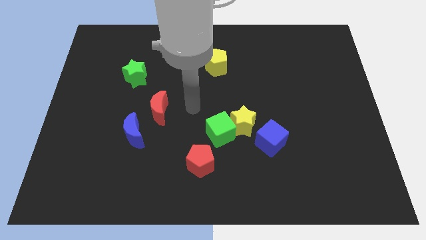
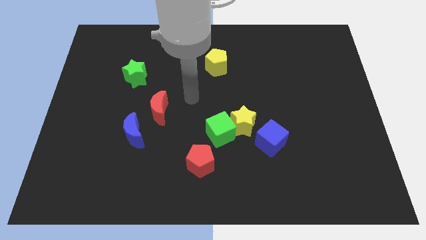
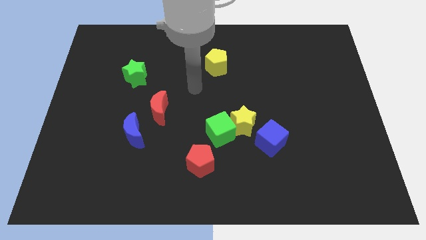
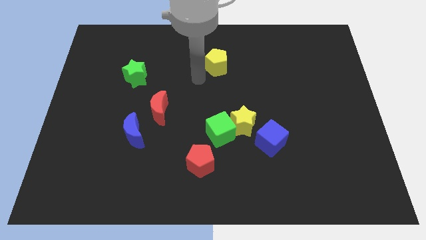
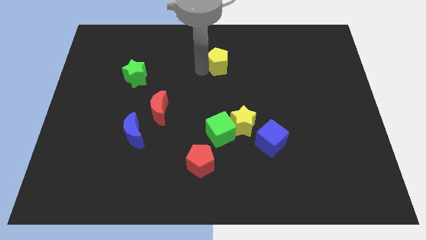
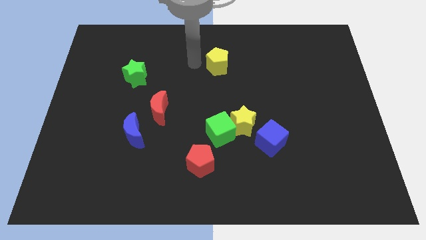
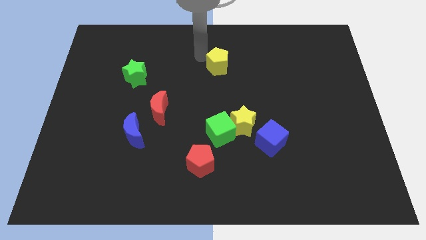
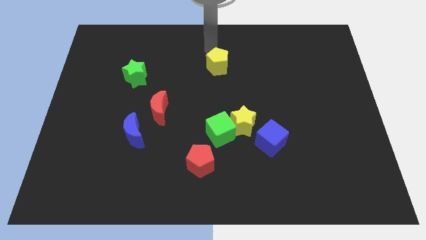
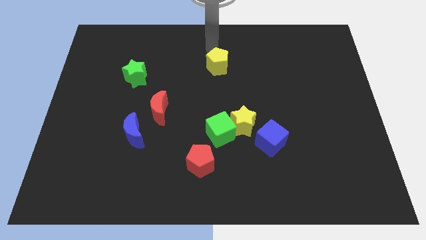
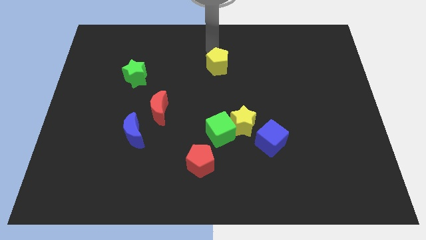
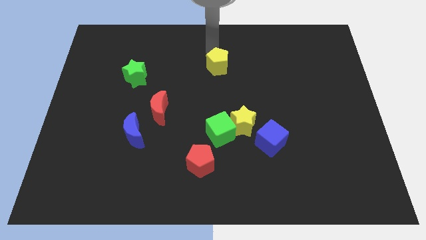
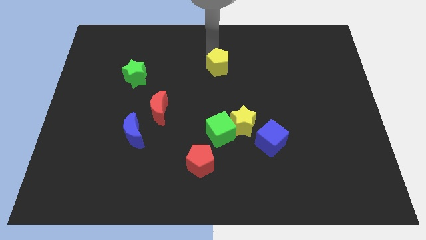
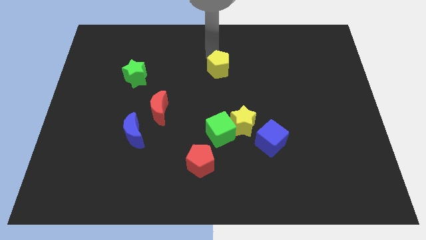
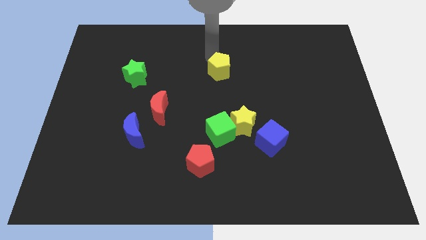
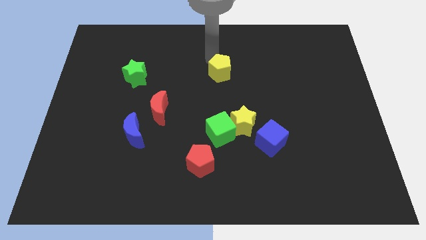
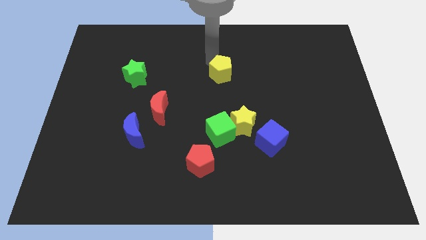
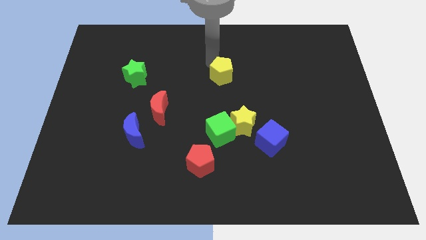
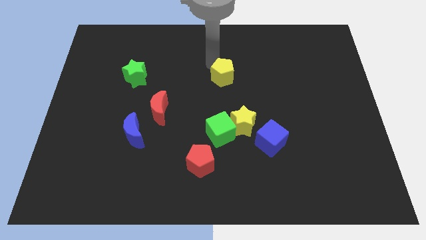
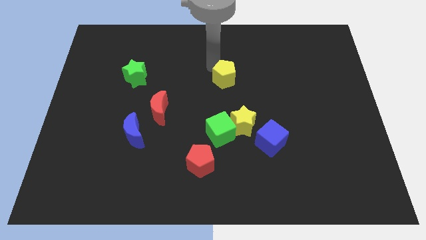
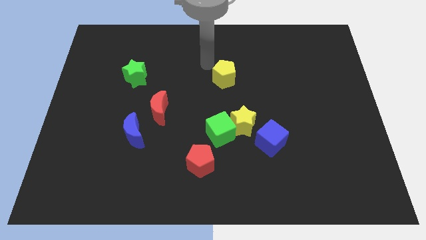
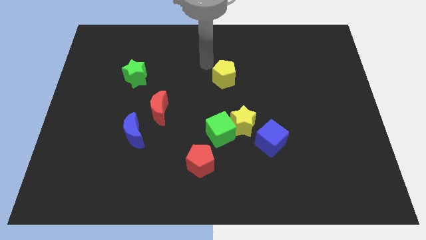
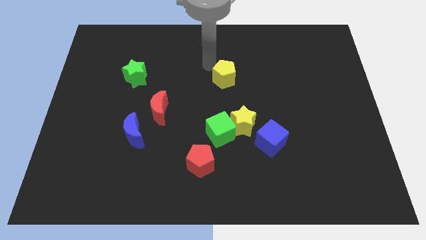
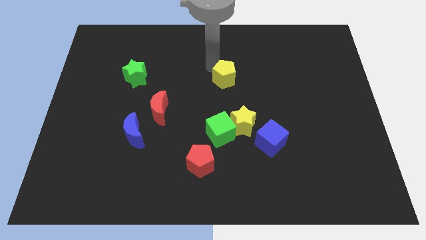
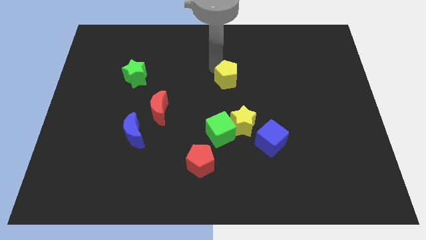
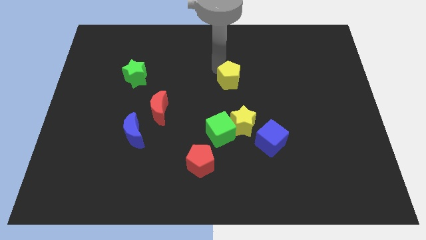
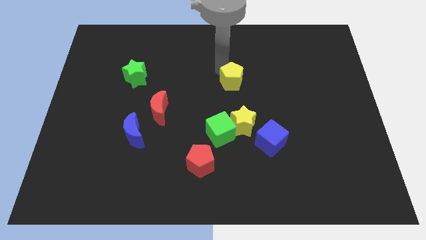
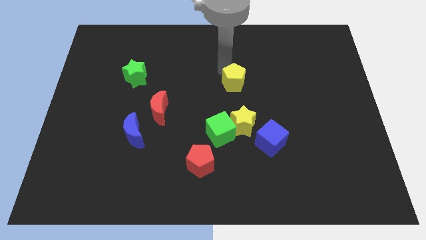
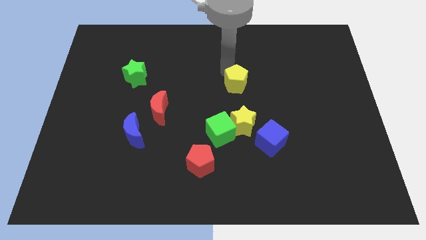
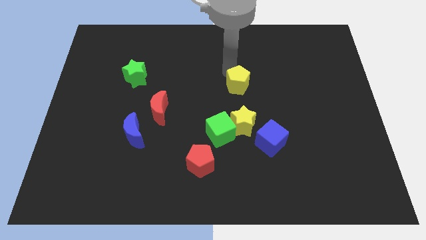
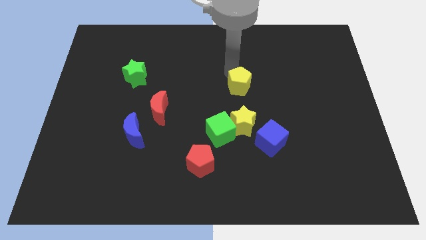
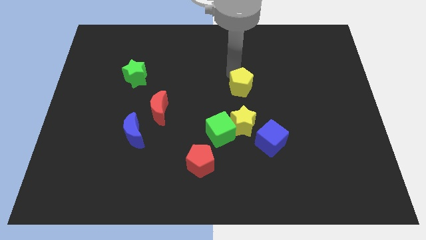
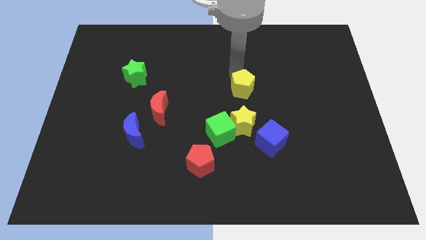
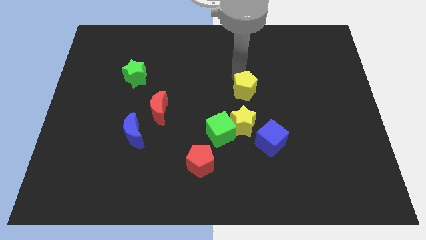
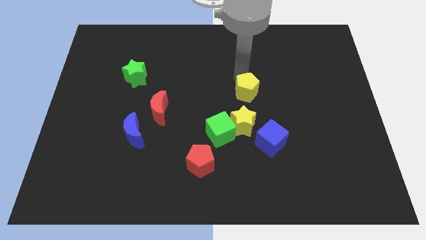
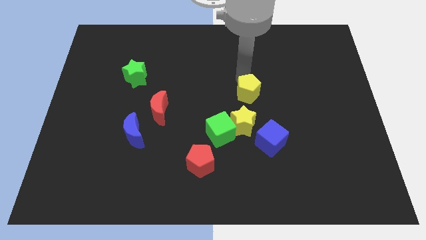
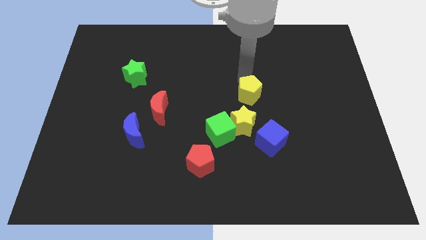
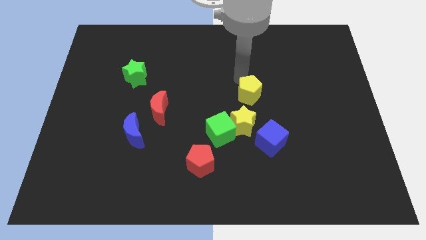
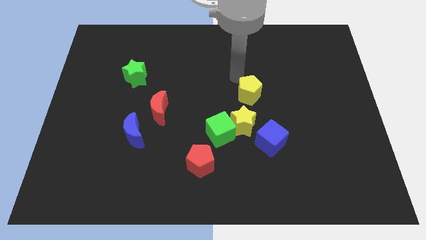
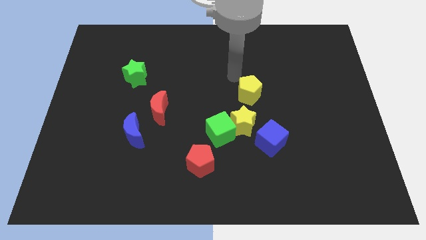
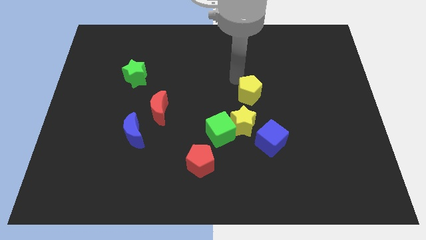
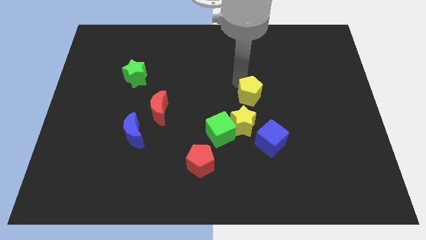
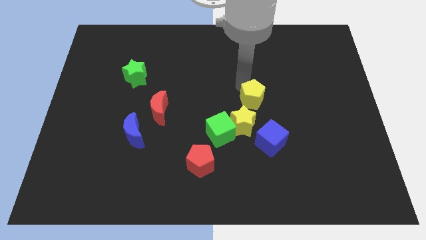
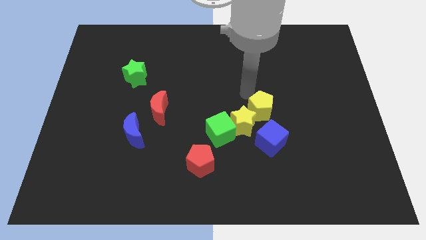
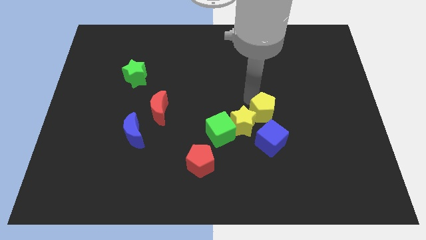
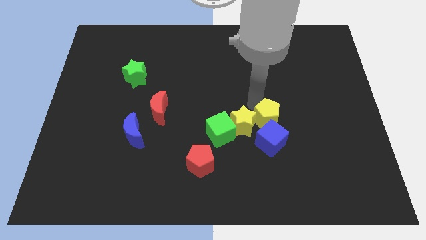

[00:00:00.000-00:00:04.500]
put the yellow pentagon to the top right side of the blue cube

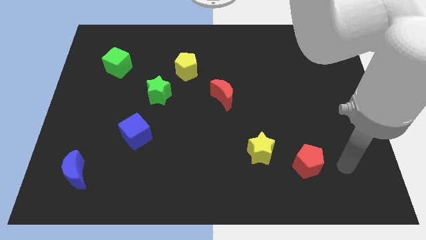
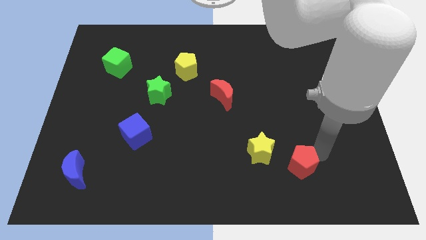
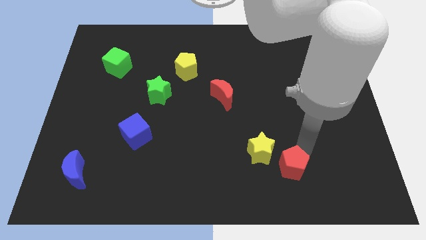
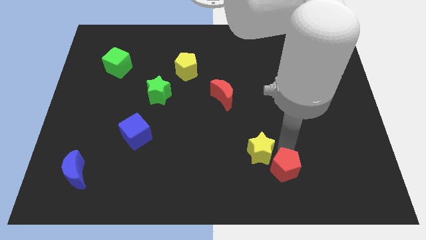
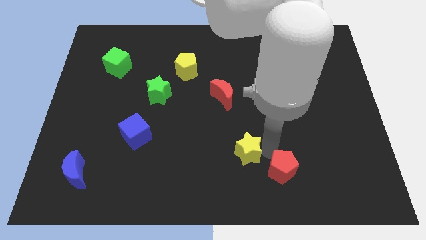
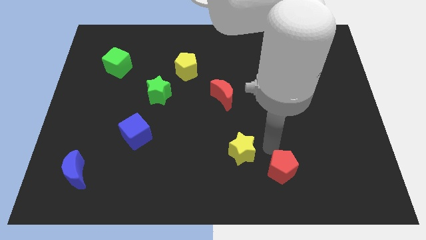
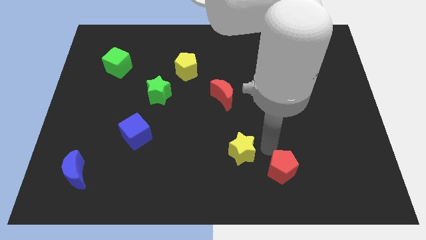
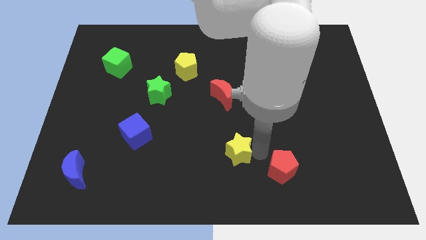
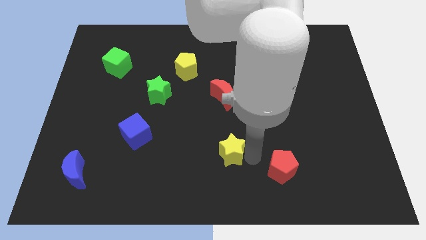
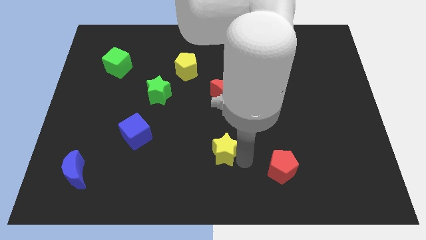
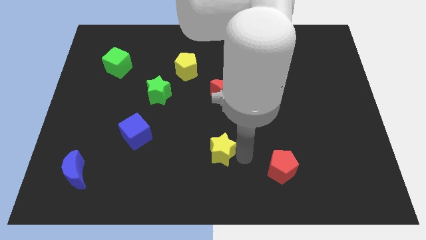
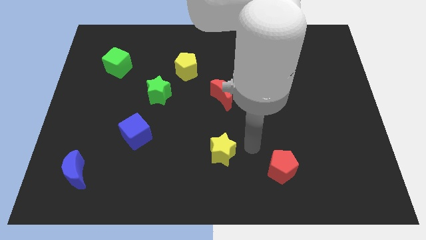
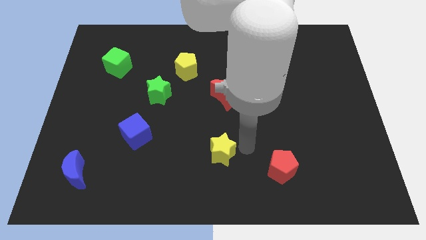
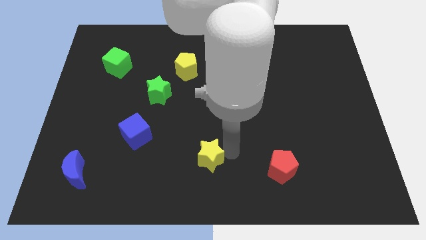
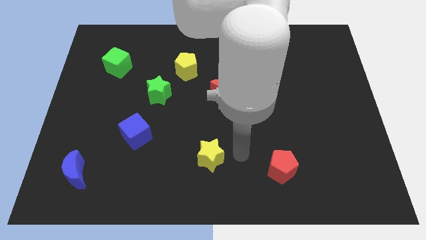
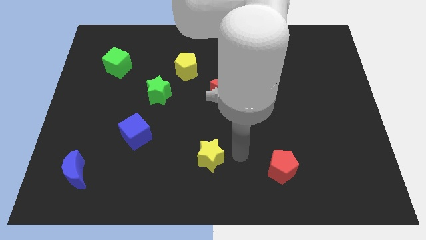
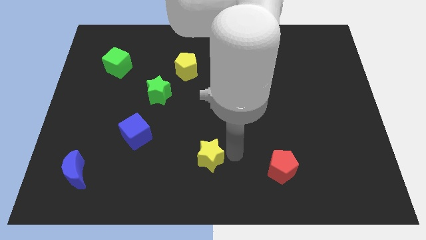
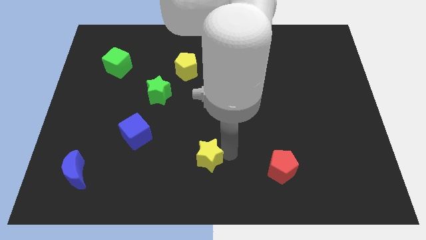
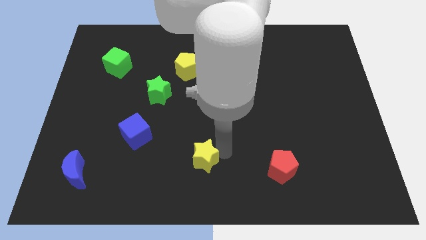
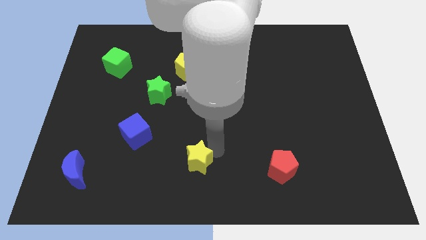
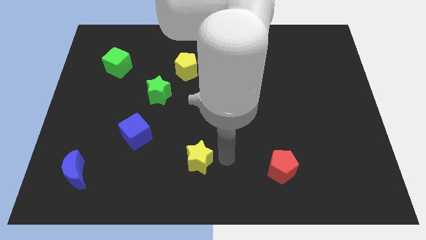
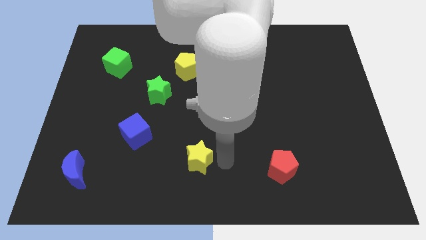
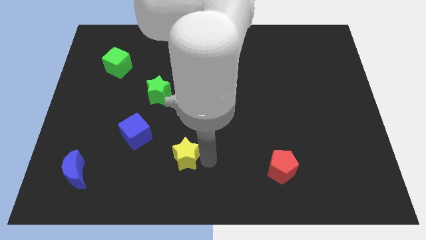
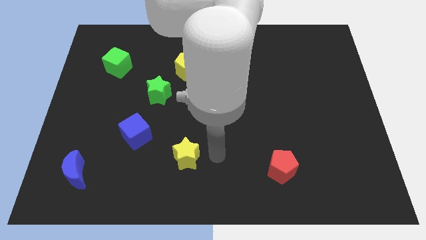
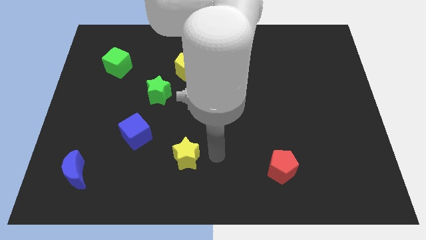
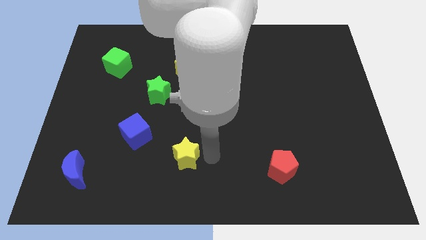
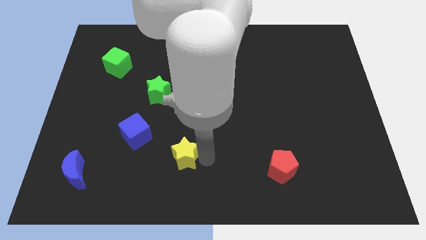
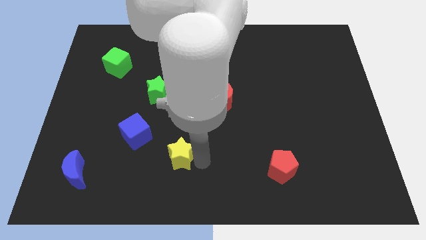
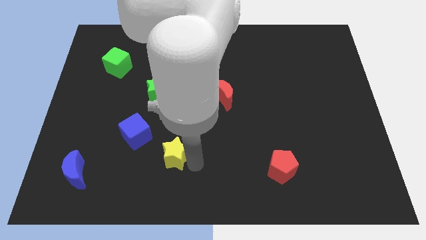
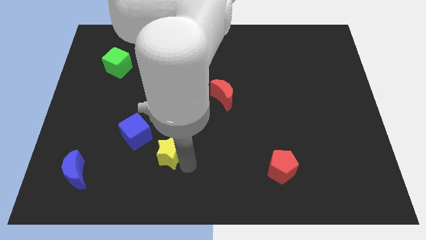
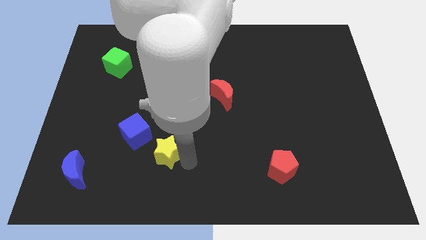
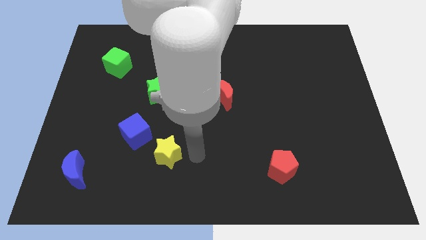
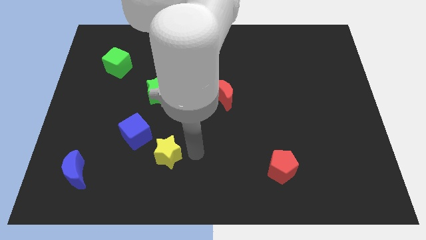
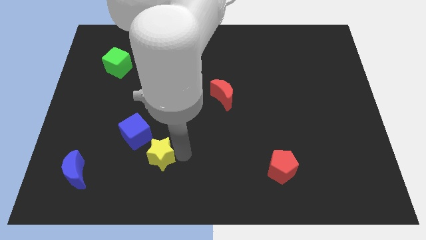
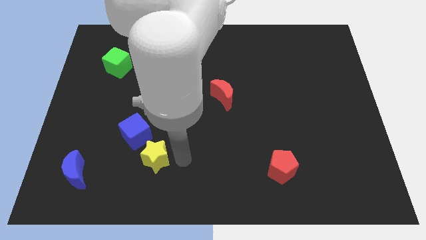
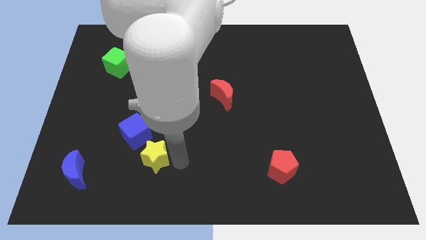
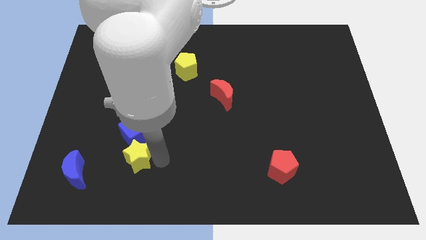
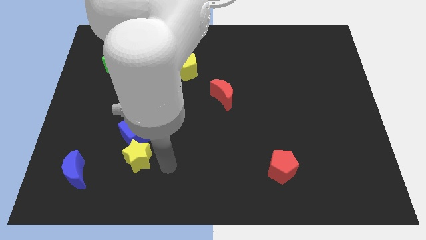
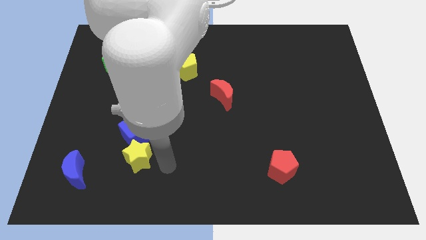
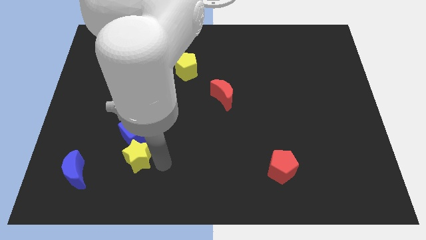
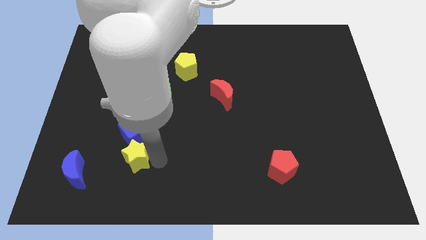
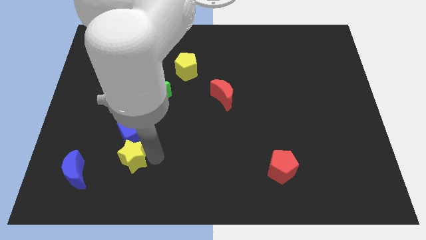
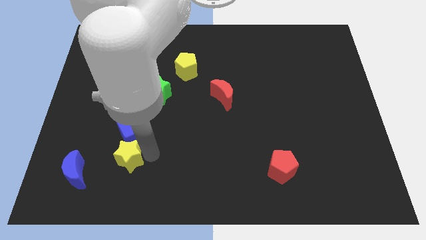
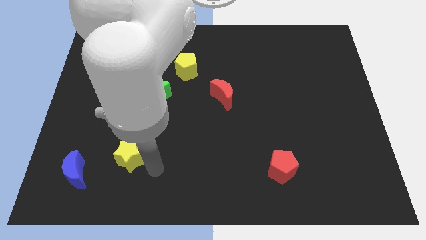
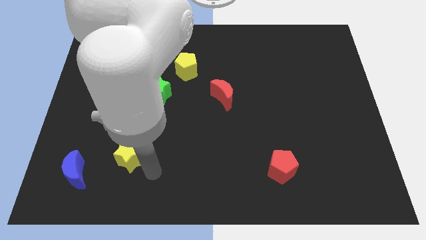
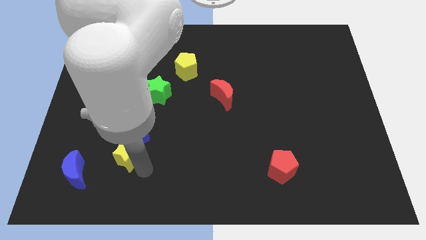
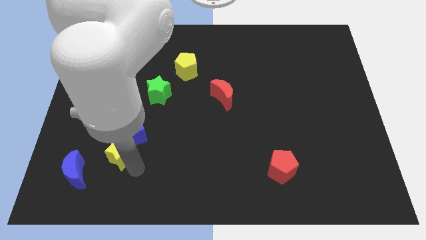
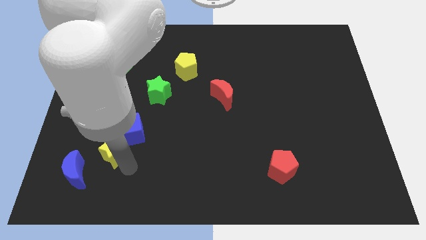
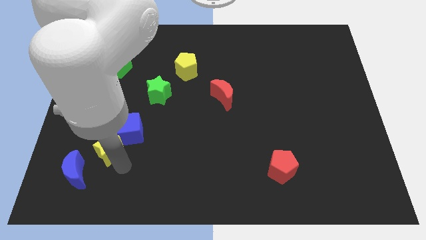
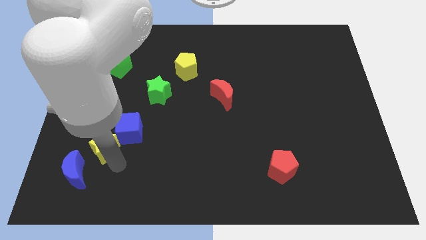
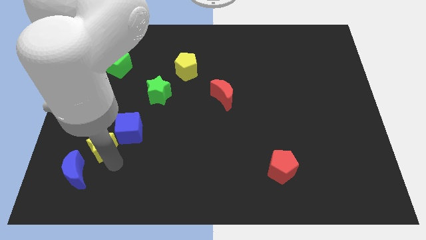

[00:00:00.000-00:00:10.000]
put the yellow star to the top side of the blue moon
